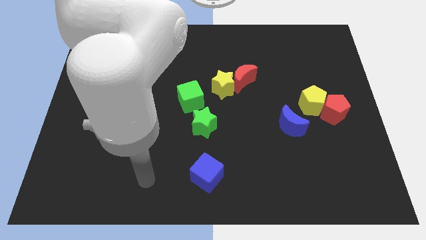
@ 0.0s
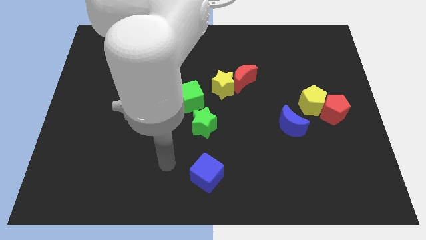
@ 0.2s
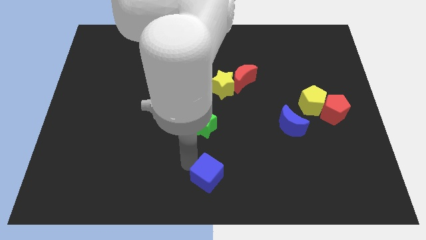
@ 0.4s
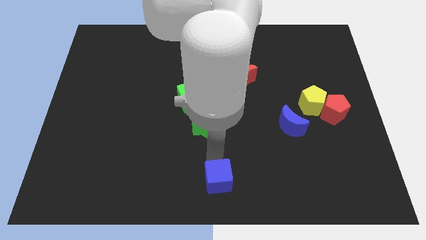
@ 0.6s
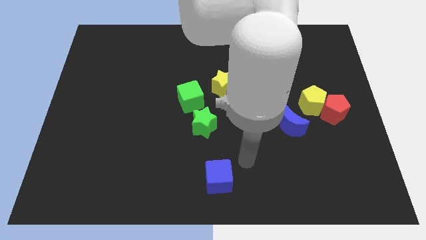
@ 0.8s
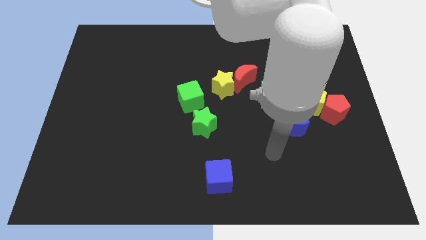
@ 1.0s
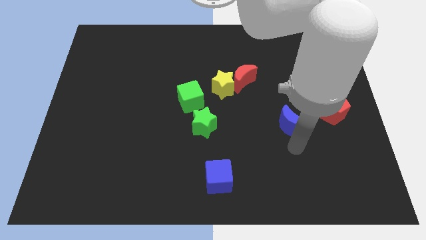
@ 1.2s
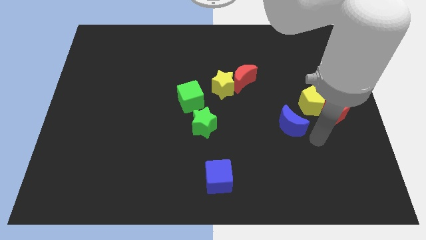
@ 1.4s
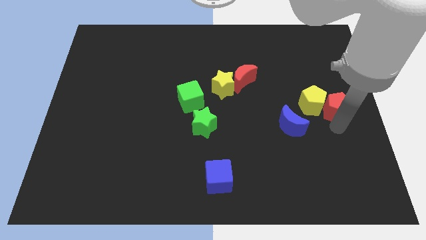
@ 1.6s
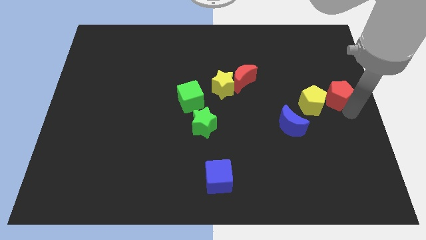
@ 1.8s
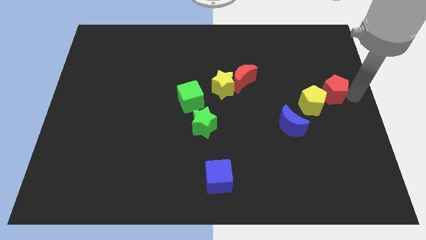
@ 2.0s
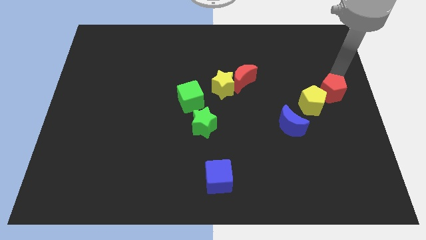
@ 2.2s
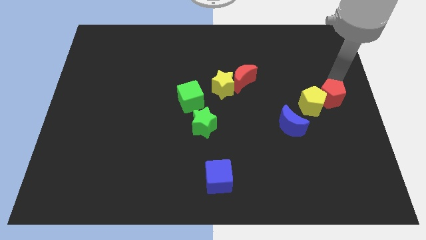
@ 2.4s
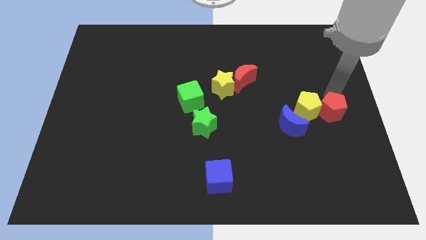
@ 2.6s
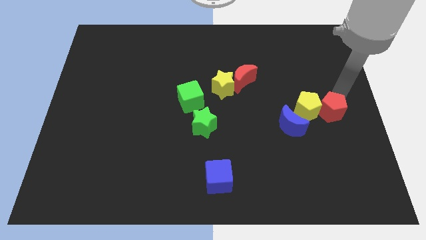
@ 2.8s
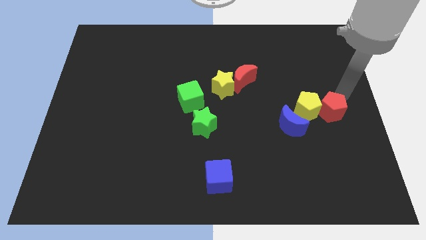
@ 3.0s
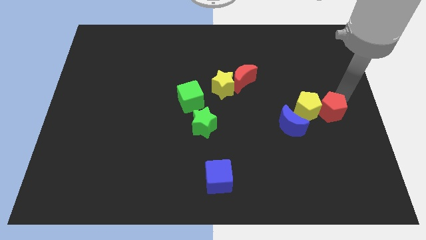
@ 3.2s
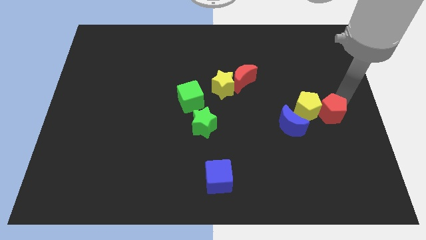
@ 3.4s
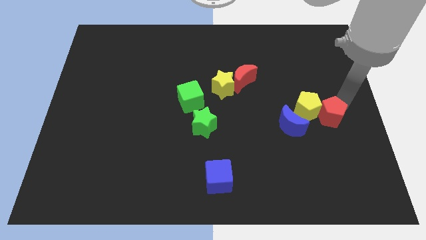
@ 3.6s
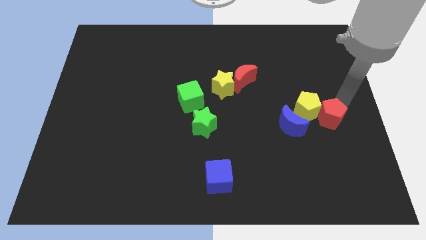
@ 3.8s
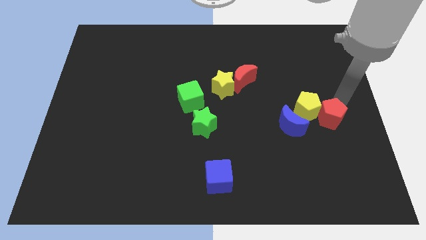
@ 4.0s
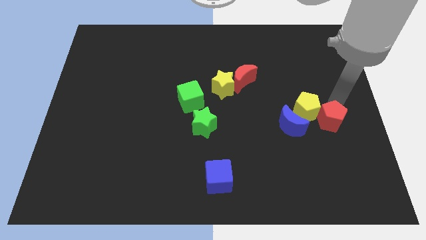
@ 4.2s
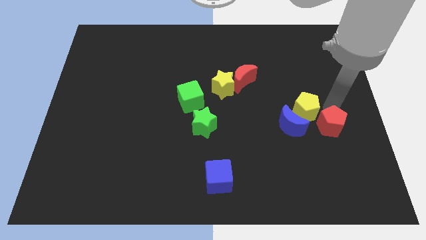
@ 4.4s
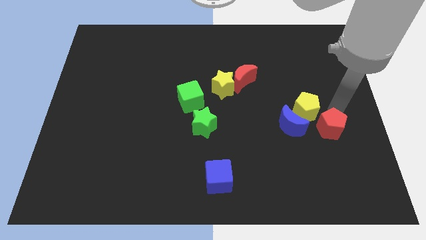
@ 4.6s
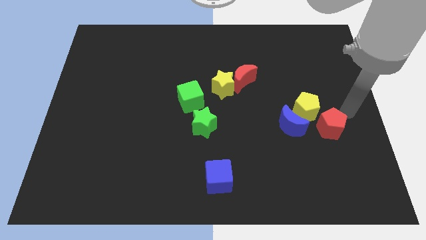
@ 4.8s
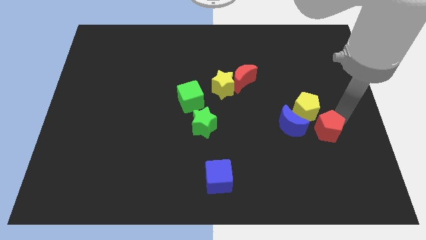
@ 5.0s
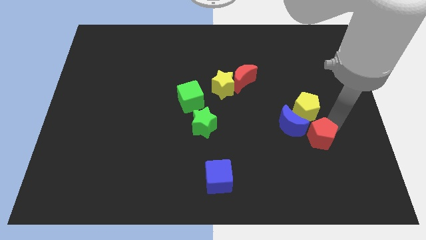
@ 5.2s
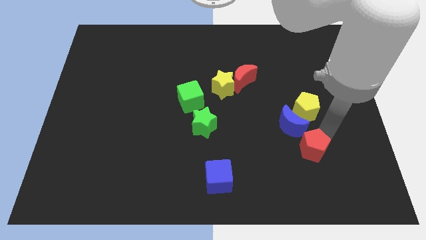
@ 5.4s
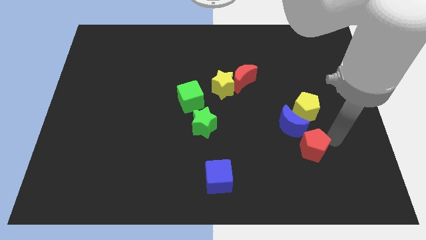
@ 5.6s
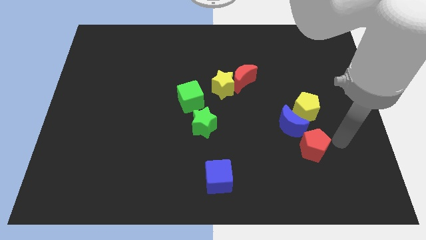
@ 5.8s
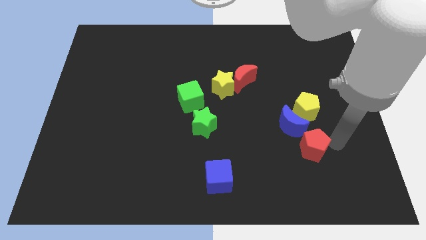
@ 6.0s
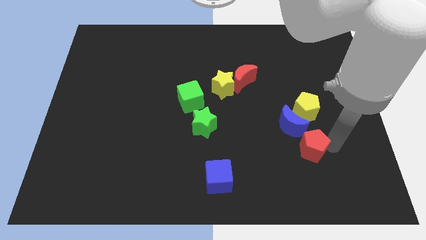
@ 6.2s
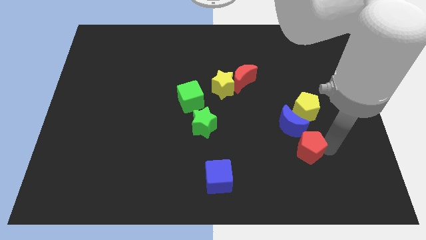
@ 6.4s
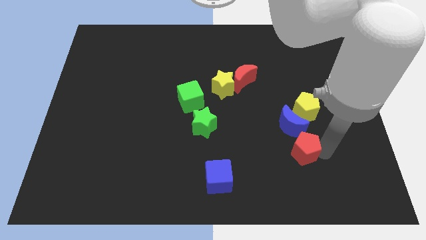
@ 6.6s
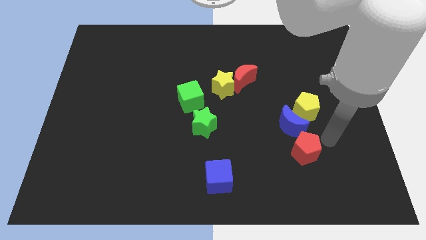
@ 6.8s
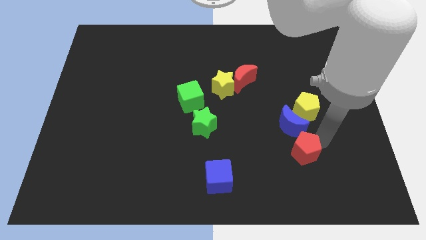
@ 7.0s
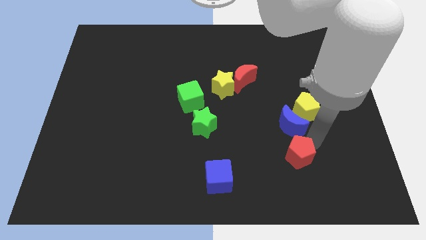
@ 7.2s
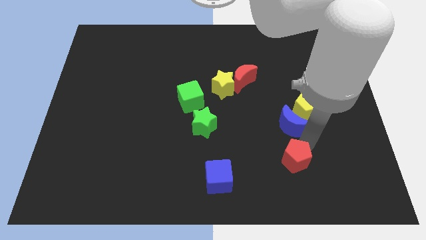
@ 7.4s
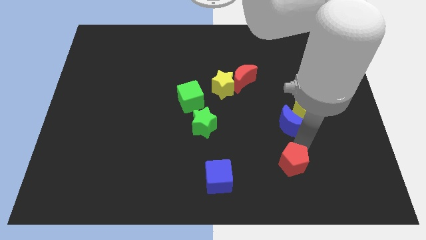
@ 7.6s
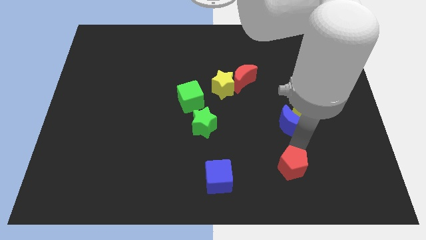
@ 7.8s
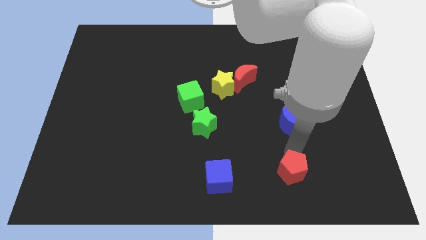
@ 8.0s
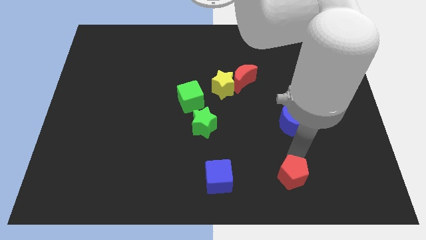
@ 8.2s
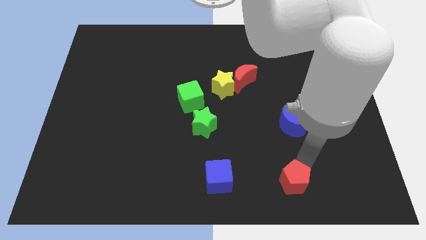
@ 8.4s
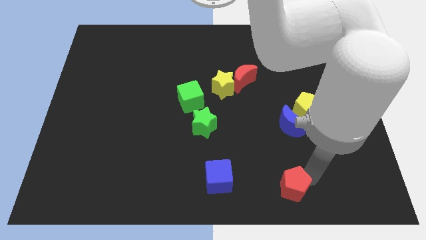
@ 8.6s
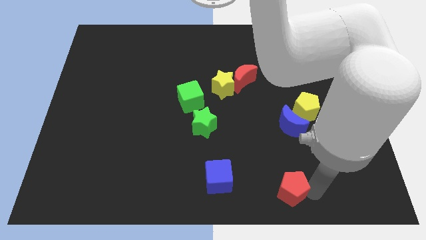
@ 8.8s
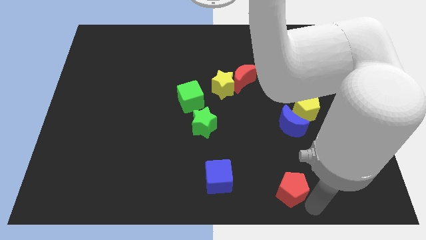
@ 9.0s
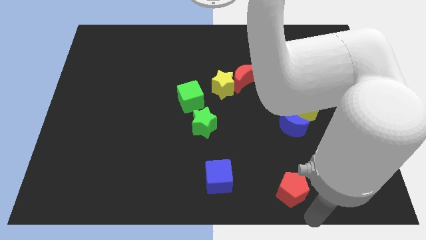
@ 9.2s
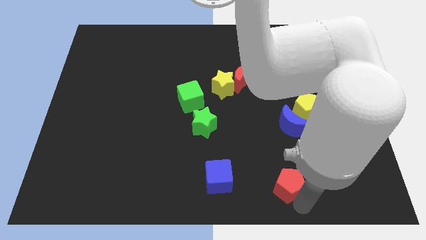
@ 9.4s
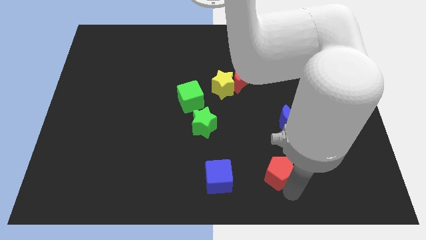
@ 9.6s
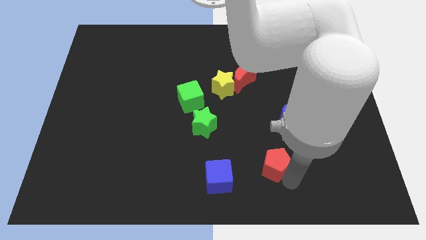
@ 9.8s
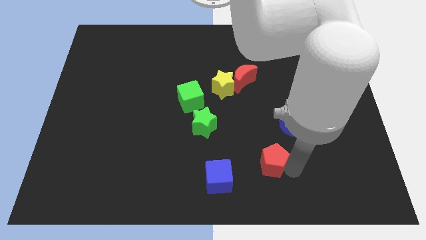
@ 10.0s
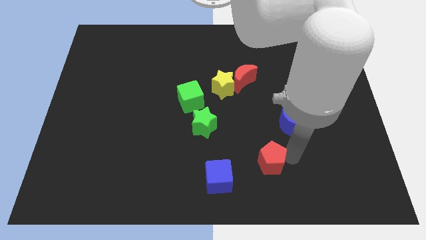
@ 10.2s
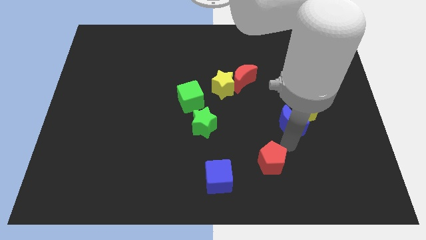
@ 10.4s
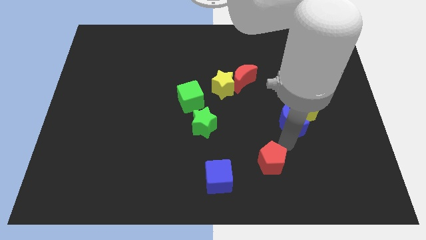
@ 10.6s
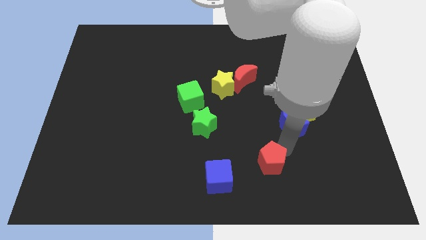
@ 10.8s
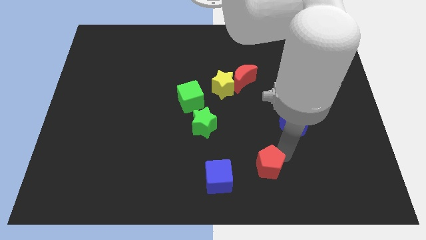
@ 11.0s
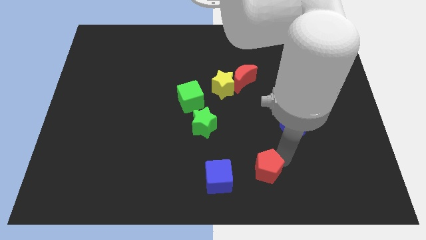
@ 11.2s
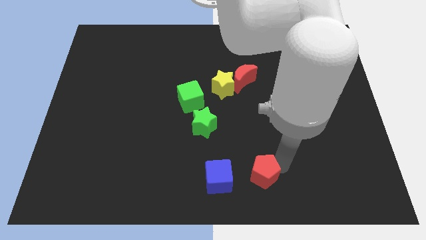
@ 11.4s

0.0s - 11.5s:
slide the red pentagon to the bottom side
